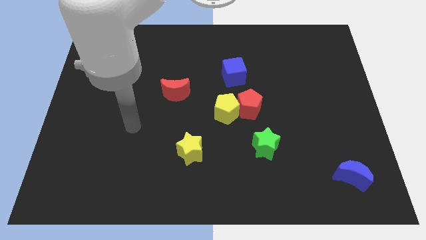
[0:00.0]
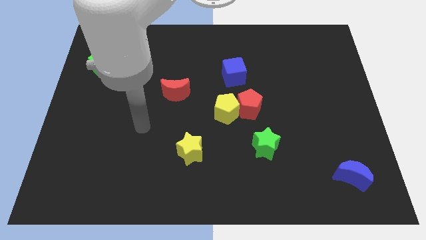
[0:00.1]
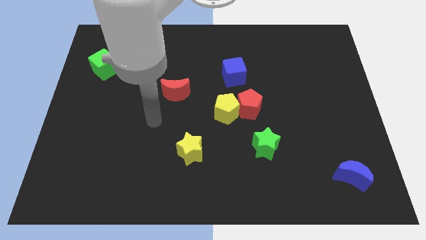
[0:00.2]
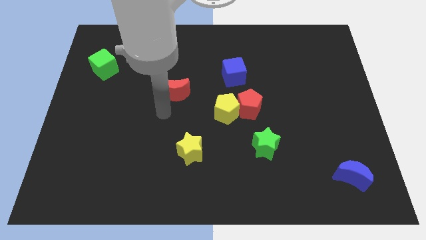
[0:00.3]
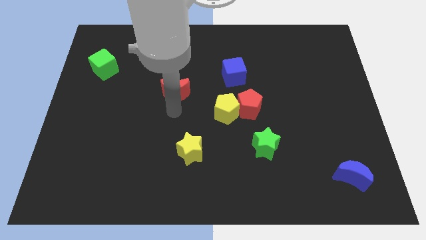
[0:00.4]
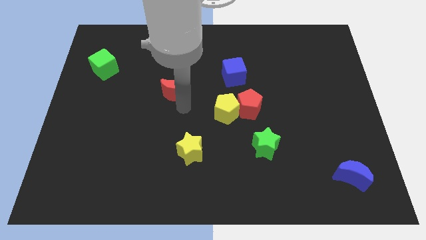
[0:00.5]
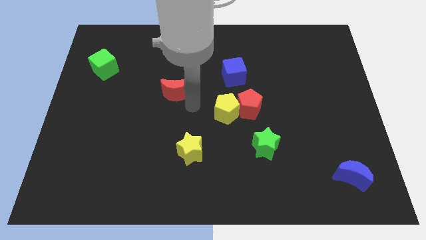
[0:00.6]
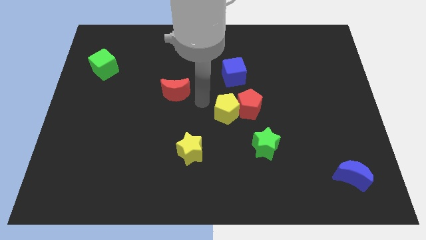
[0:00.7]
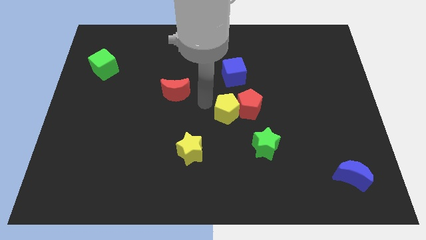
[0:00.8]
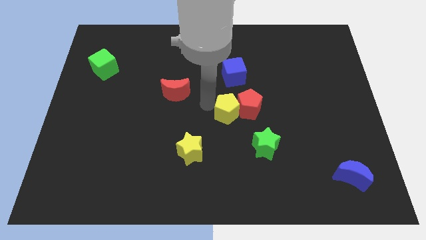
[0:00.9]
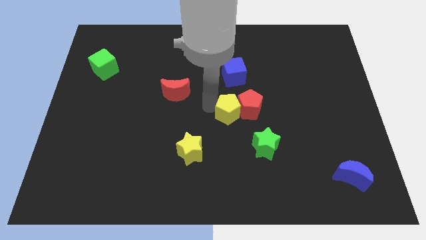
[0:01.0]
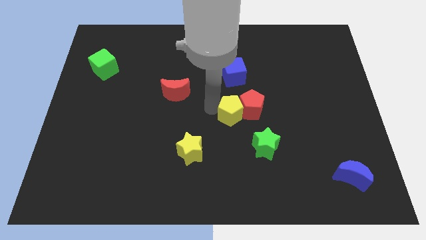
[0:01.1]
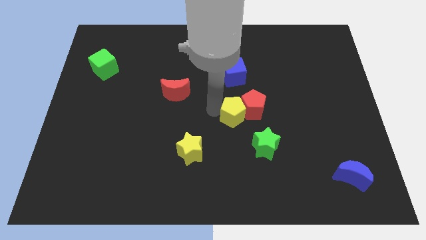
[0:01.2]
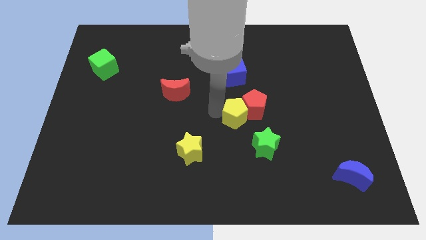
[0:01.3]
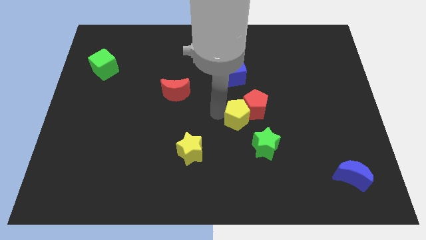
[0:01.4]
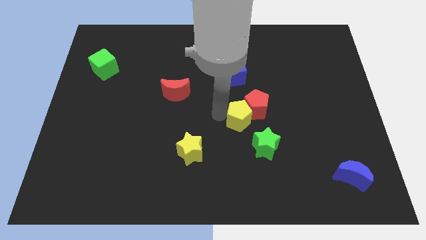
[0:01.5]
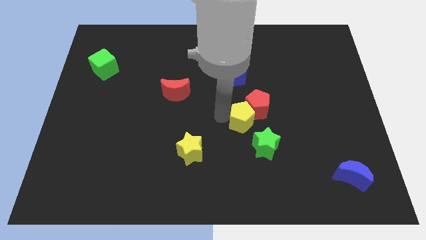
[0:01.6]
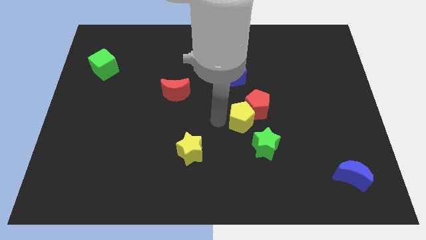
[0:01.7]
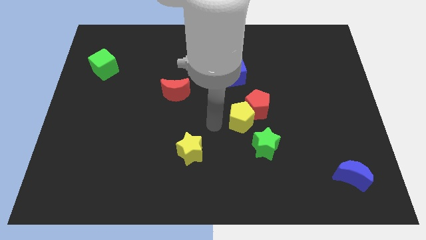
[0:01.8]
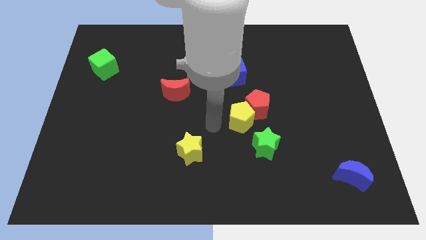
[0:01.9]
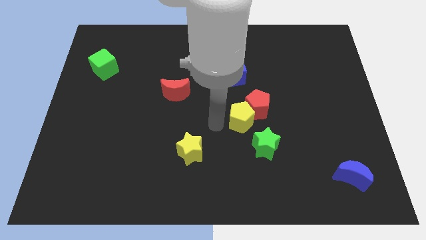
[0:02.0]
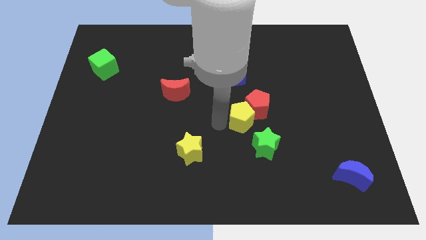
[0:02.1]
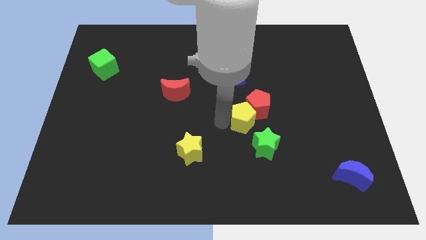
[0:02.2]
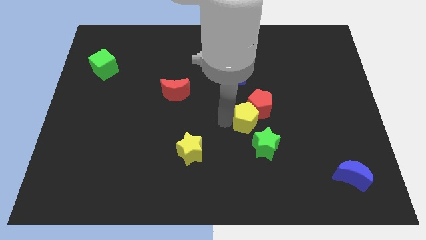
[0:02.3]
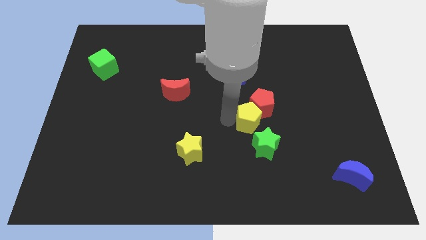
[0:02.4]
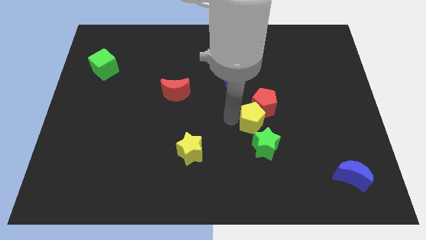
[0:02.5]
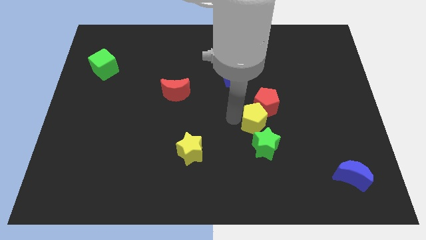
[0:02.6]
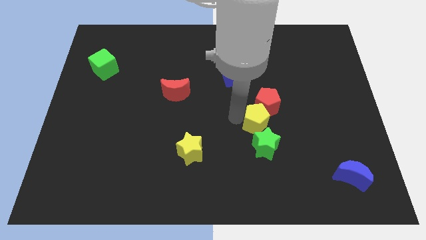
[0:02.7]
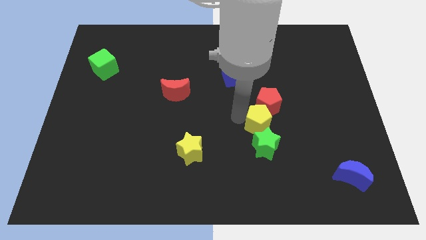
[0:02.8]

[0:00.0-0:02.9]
slide the yellow pentagon to the right somewhat

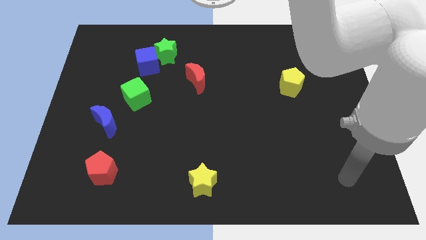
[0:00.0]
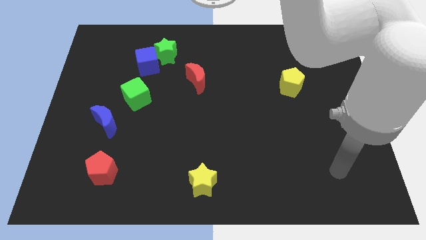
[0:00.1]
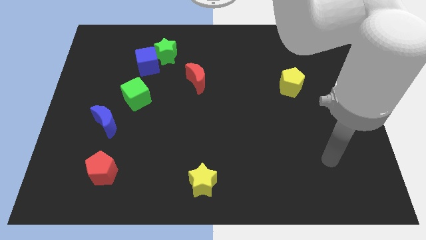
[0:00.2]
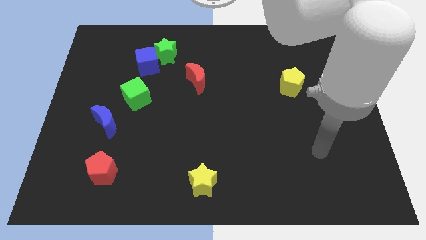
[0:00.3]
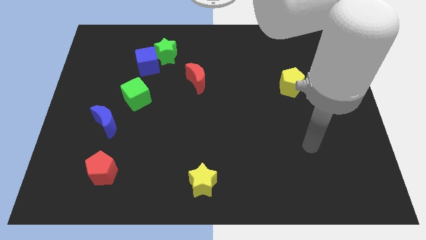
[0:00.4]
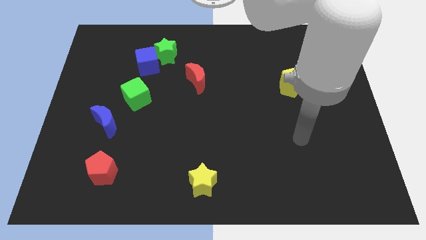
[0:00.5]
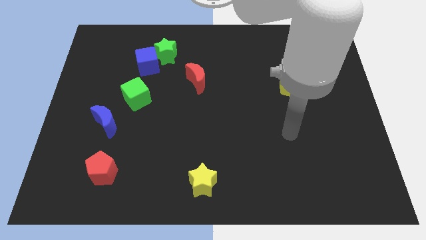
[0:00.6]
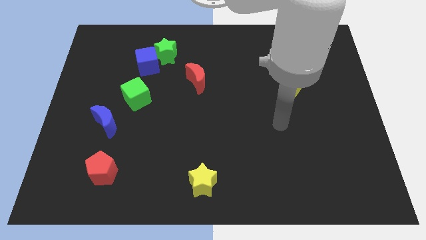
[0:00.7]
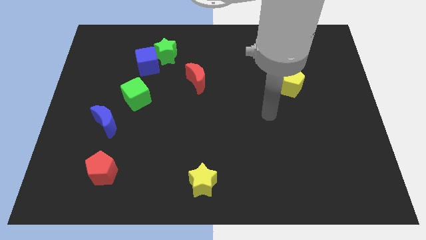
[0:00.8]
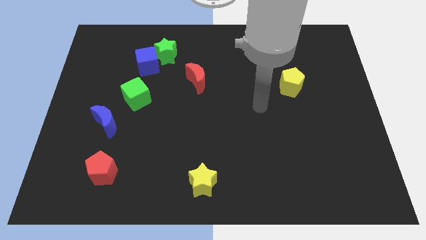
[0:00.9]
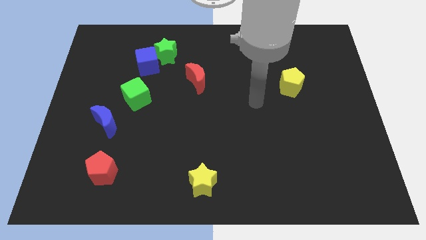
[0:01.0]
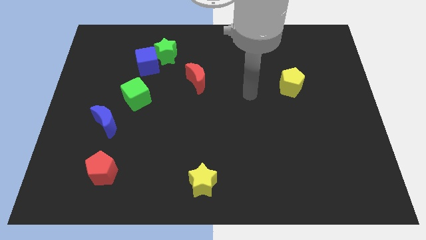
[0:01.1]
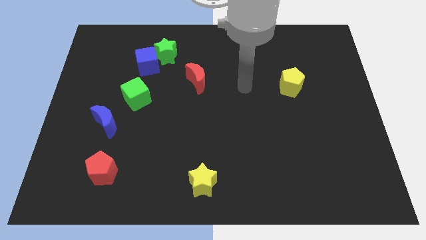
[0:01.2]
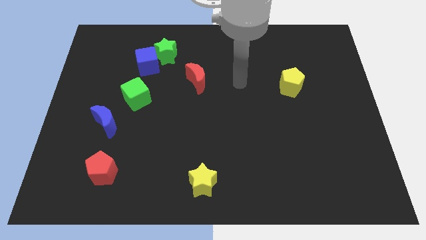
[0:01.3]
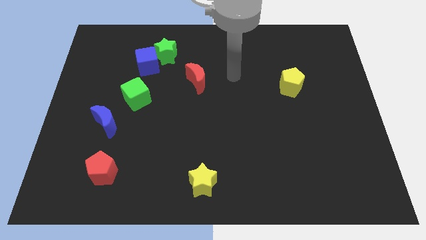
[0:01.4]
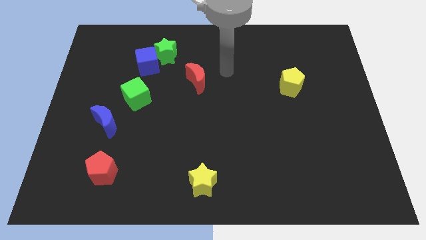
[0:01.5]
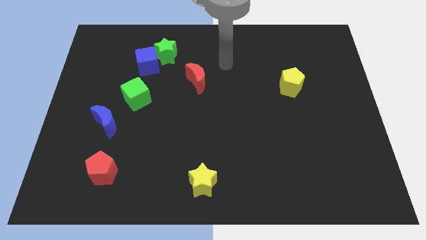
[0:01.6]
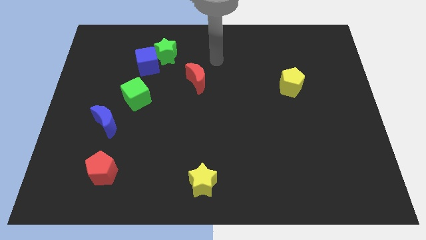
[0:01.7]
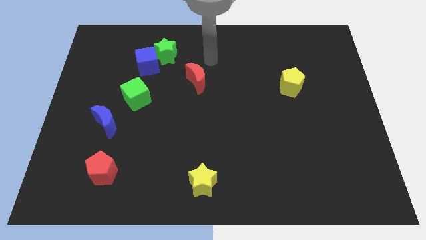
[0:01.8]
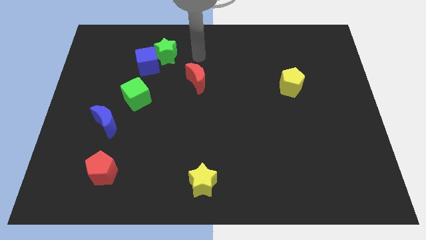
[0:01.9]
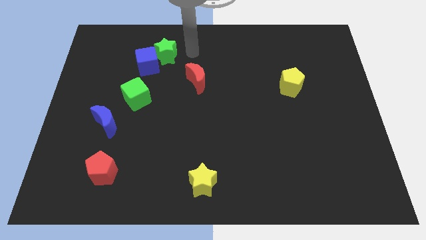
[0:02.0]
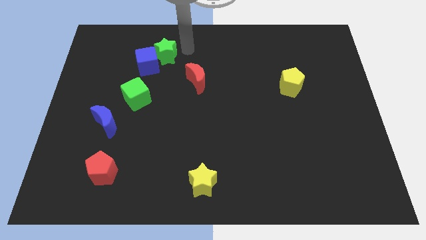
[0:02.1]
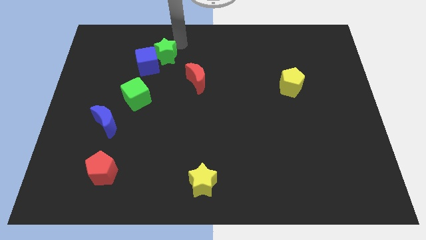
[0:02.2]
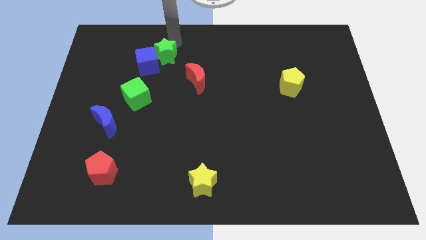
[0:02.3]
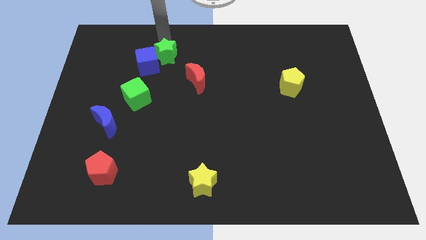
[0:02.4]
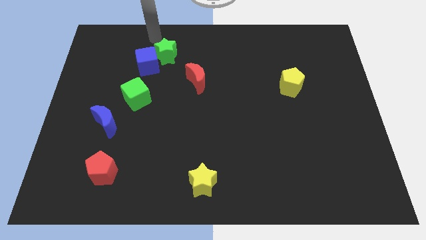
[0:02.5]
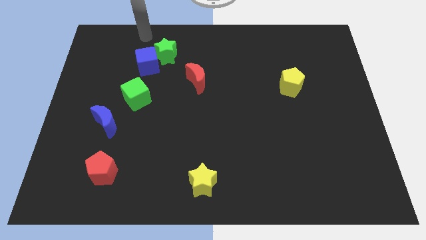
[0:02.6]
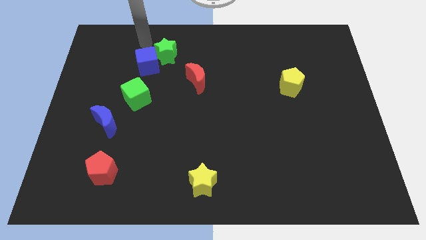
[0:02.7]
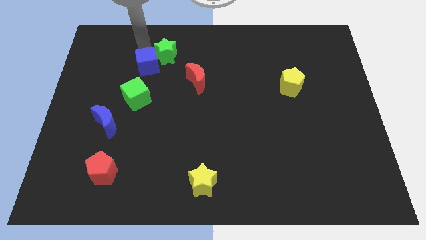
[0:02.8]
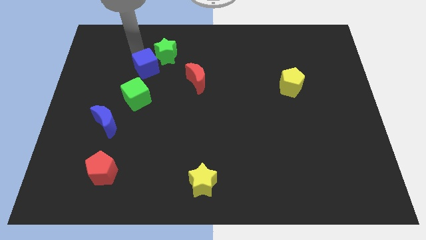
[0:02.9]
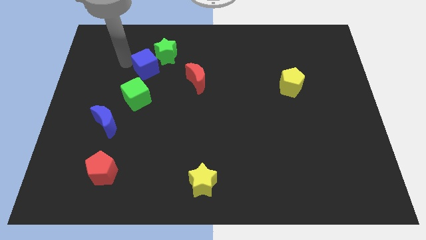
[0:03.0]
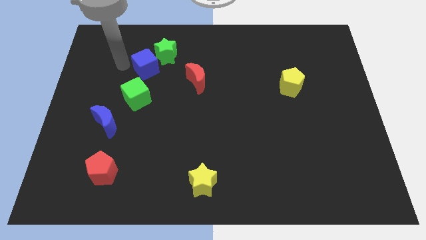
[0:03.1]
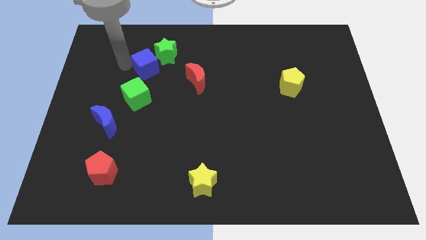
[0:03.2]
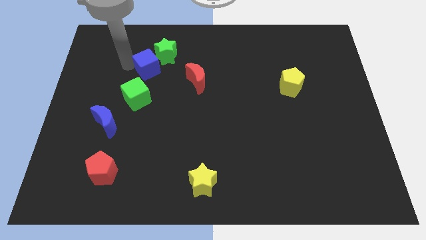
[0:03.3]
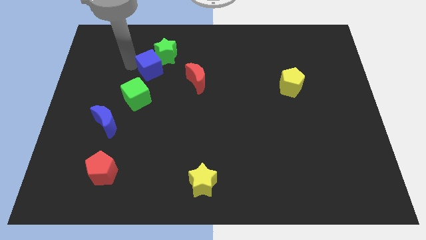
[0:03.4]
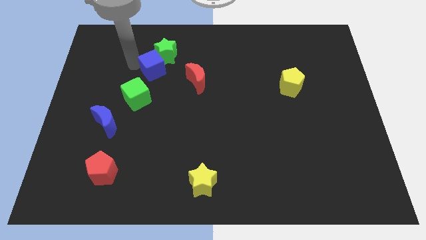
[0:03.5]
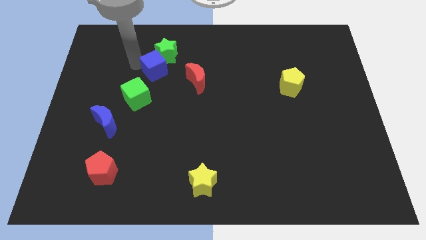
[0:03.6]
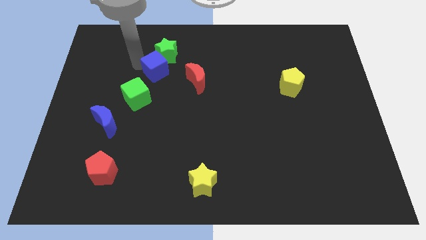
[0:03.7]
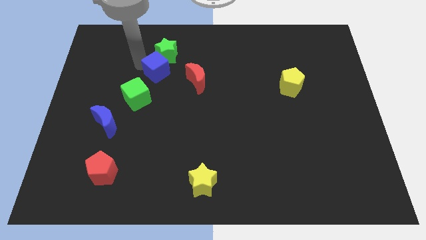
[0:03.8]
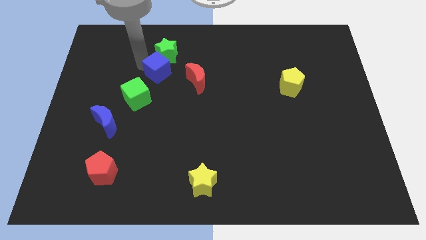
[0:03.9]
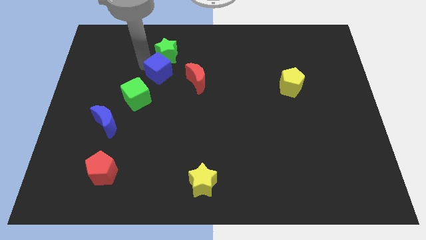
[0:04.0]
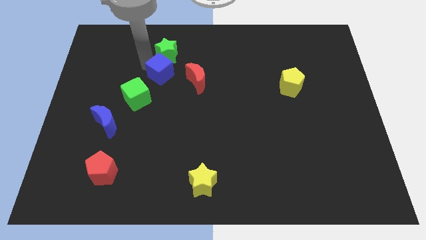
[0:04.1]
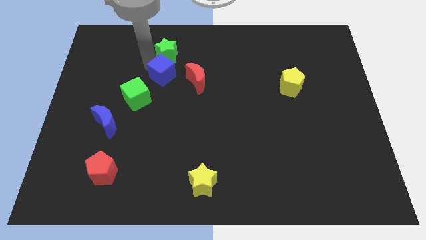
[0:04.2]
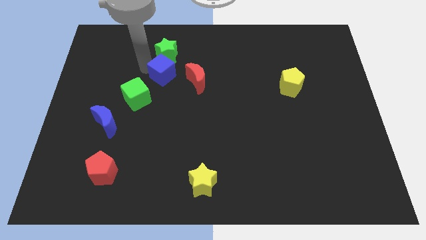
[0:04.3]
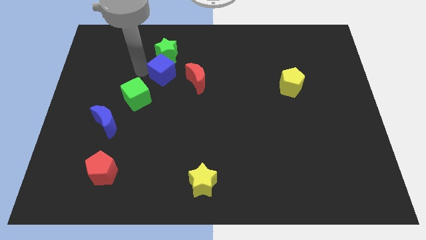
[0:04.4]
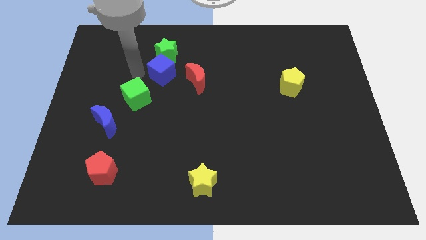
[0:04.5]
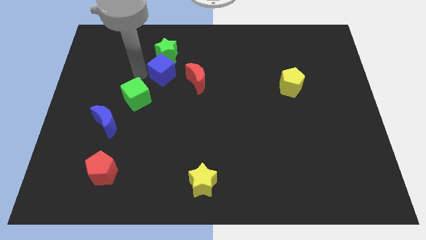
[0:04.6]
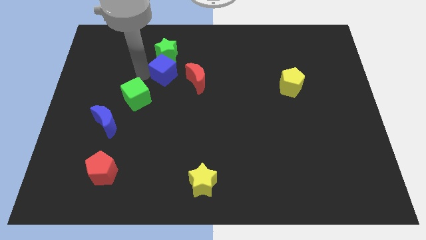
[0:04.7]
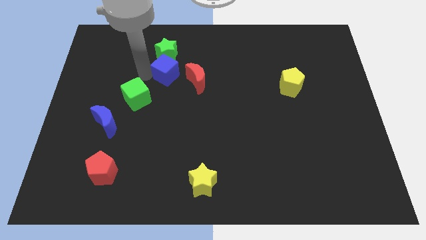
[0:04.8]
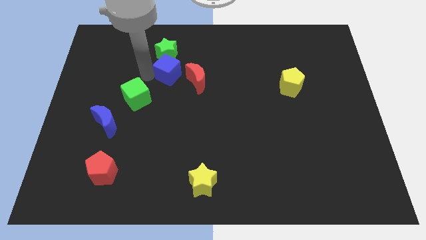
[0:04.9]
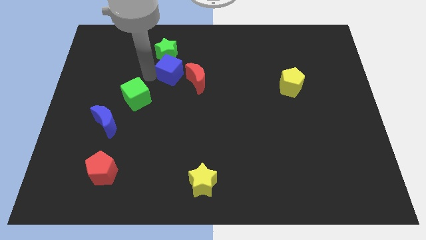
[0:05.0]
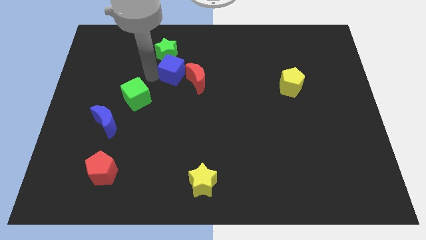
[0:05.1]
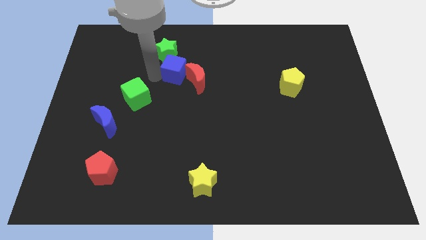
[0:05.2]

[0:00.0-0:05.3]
slightly slide the blue cube right
